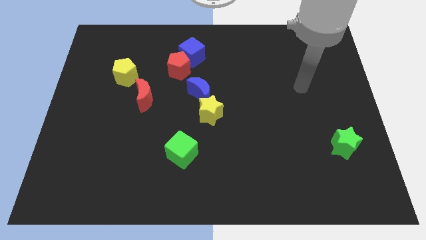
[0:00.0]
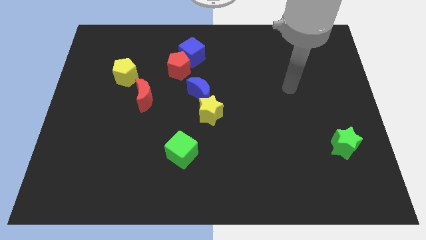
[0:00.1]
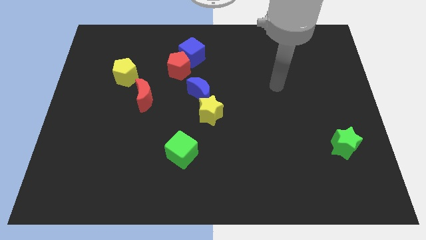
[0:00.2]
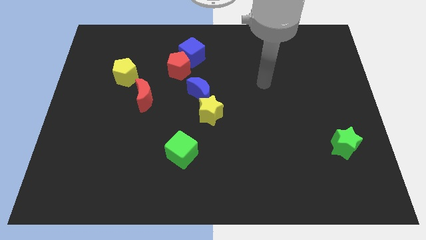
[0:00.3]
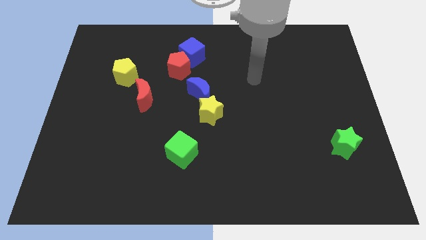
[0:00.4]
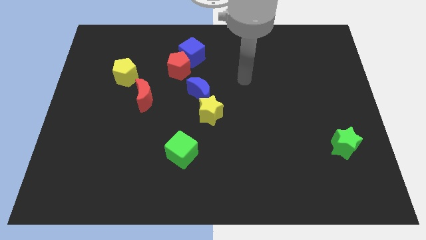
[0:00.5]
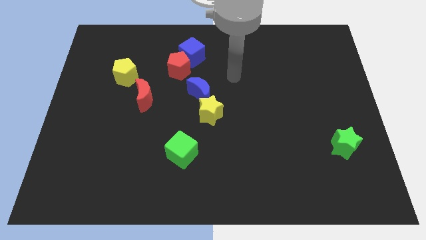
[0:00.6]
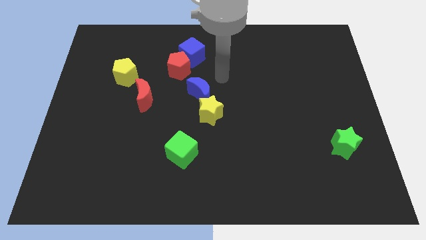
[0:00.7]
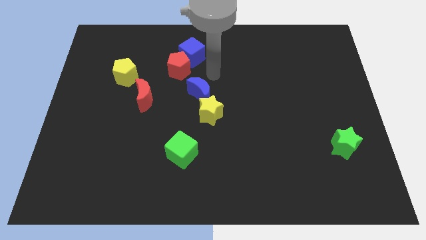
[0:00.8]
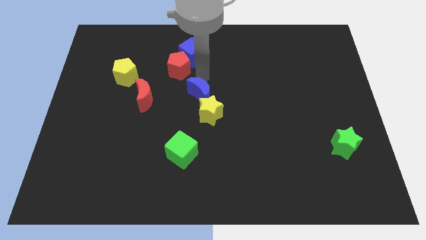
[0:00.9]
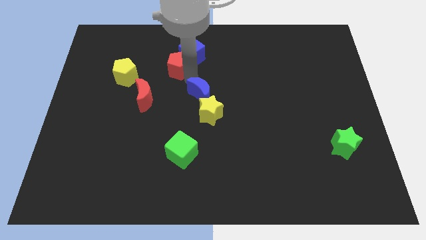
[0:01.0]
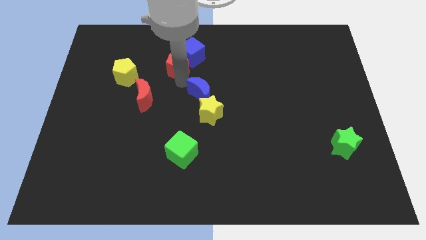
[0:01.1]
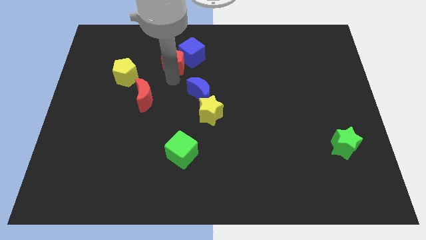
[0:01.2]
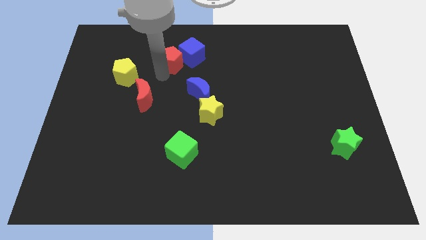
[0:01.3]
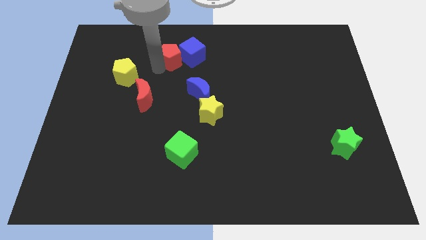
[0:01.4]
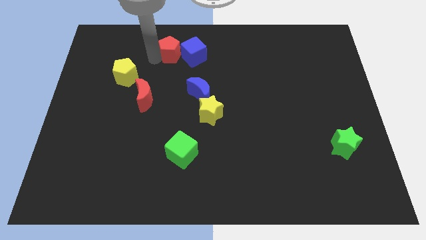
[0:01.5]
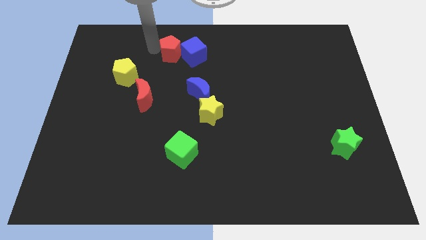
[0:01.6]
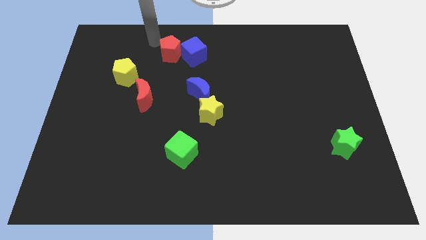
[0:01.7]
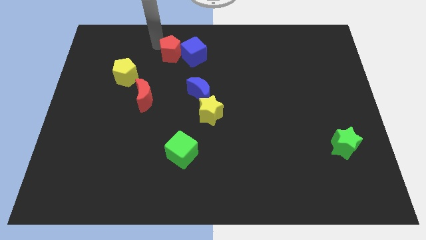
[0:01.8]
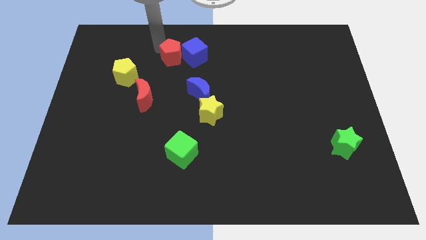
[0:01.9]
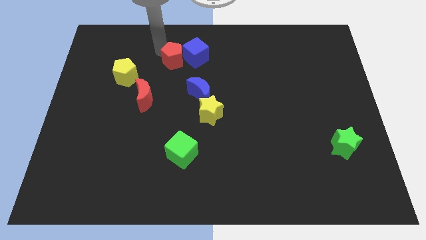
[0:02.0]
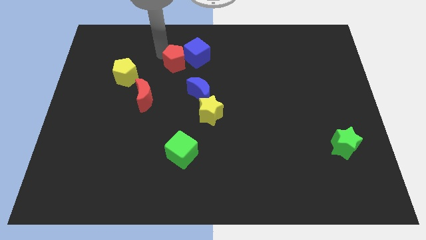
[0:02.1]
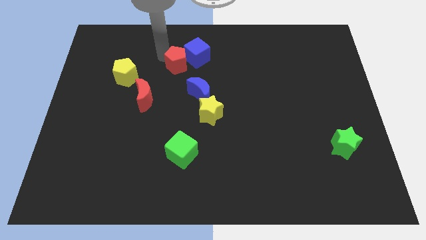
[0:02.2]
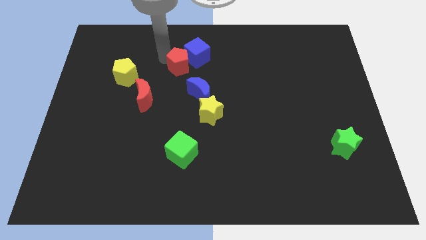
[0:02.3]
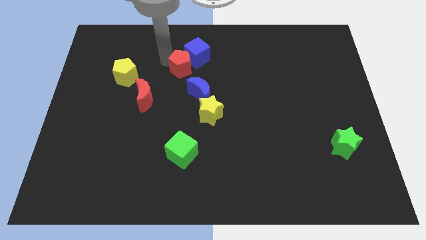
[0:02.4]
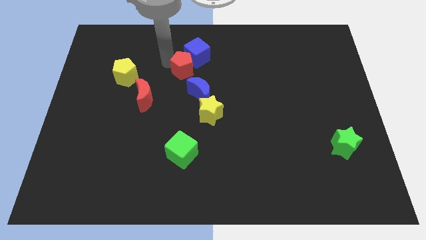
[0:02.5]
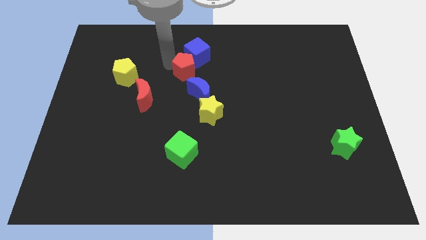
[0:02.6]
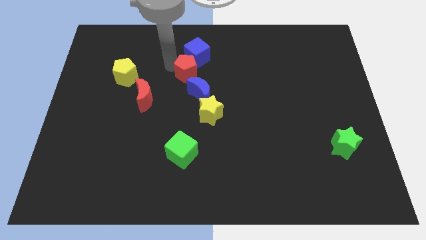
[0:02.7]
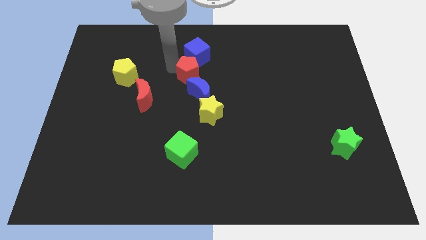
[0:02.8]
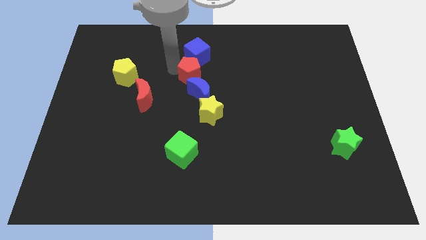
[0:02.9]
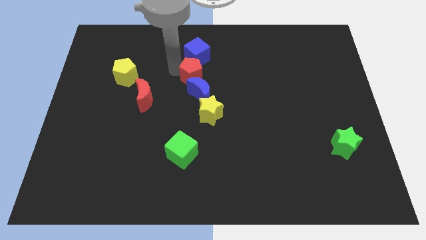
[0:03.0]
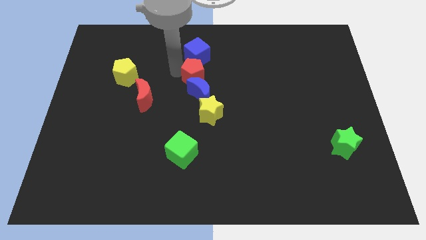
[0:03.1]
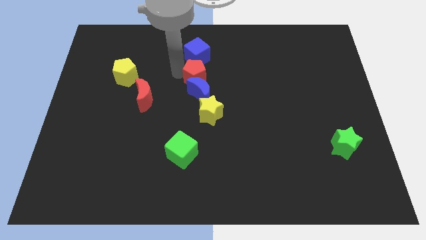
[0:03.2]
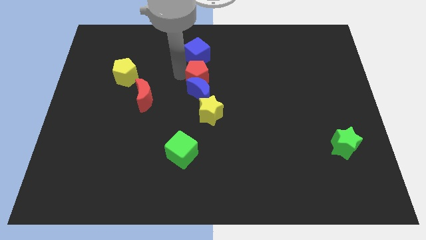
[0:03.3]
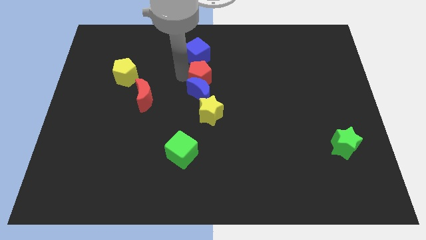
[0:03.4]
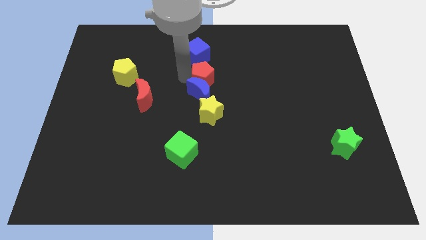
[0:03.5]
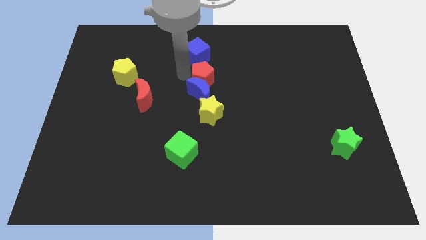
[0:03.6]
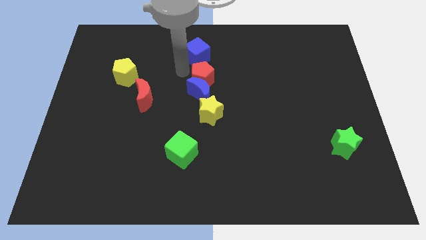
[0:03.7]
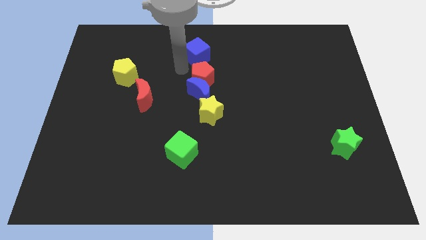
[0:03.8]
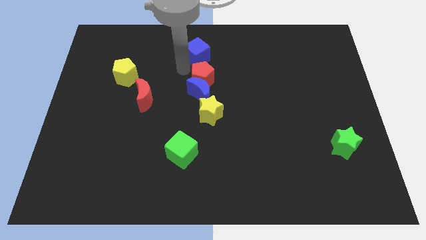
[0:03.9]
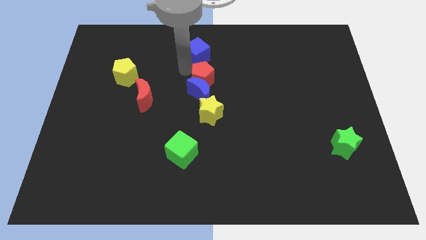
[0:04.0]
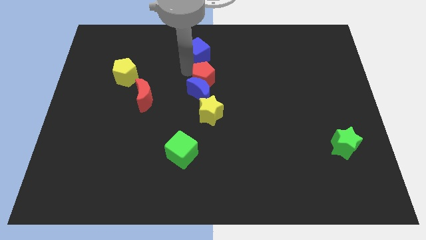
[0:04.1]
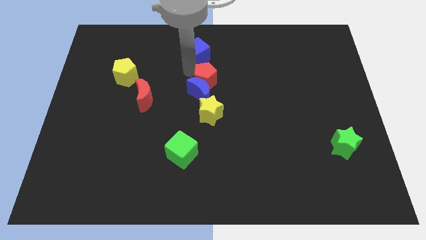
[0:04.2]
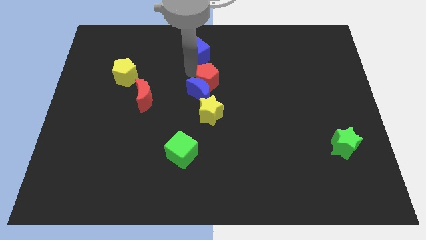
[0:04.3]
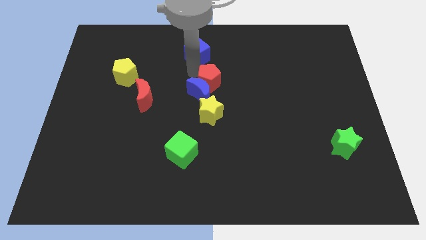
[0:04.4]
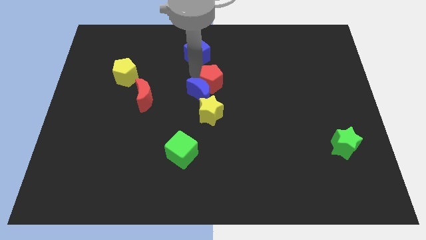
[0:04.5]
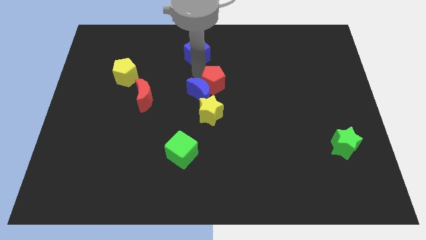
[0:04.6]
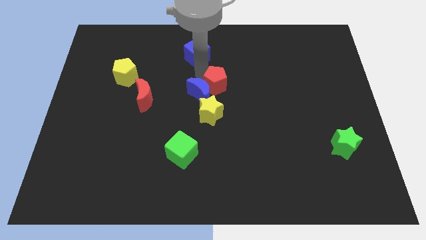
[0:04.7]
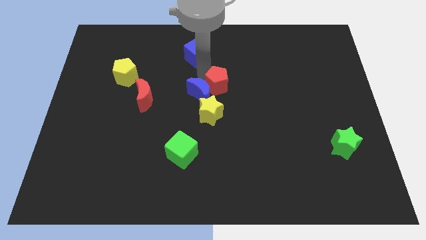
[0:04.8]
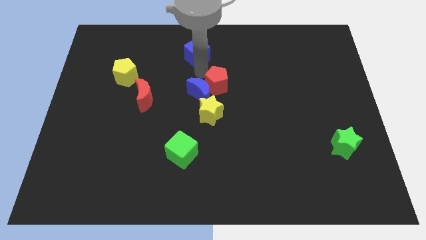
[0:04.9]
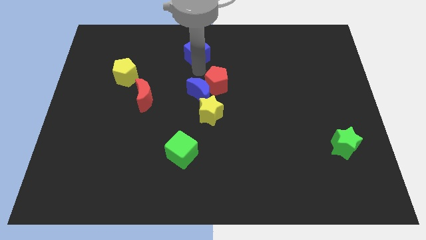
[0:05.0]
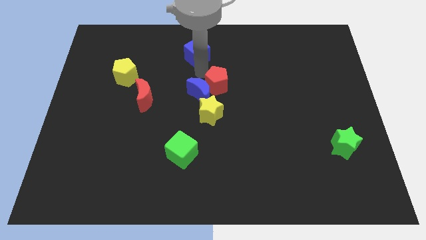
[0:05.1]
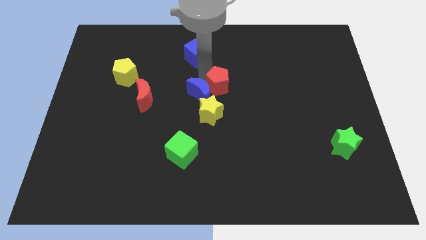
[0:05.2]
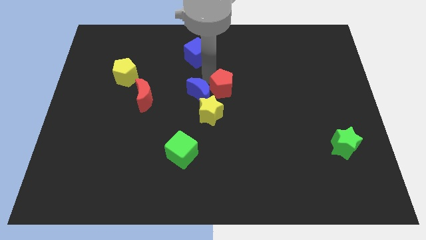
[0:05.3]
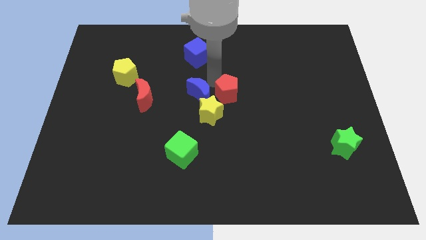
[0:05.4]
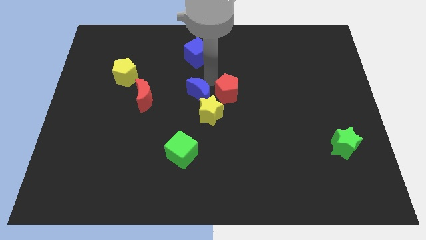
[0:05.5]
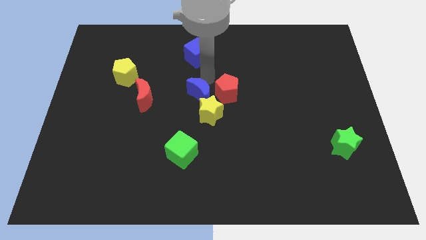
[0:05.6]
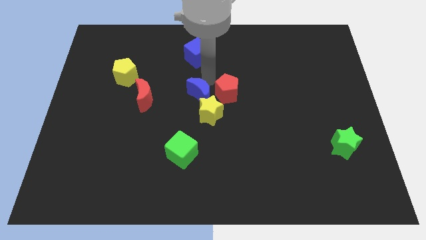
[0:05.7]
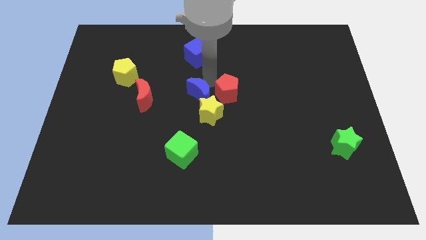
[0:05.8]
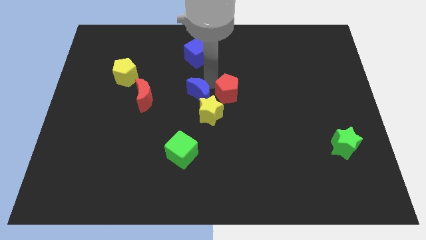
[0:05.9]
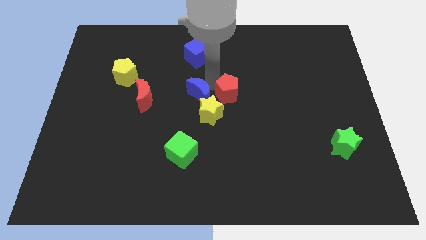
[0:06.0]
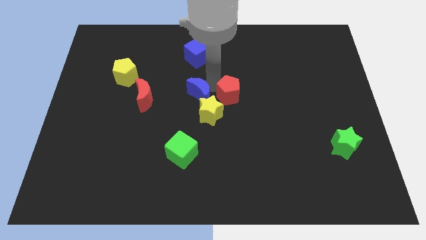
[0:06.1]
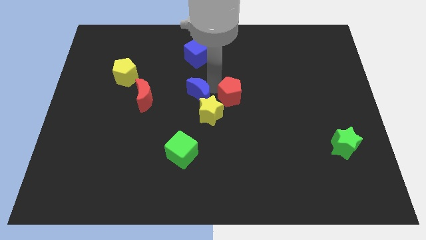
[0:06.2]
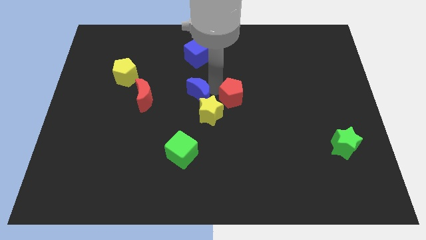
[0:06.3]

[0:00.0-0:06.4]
move the red pentagon right of the yellow star

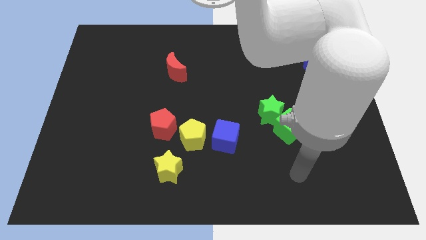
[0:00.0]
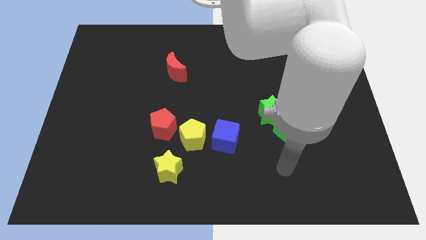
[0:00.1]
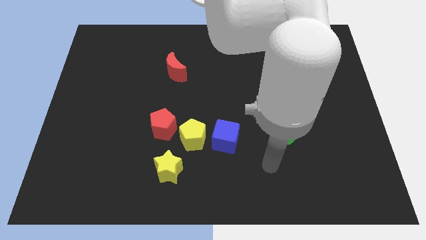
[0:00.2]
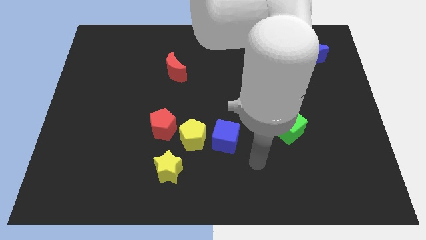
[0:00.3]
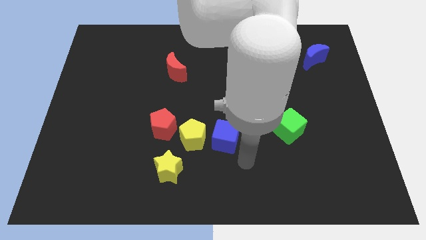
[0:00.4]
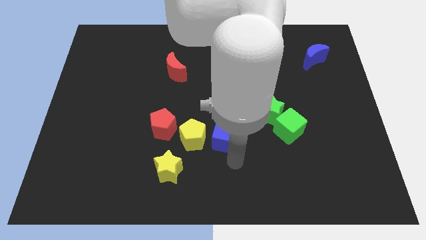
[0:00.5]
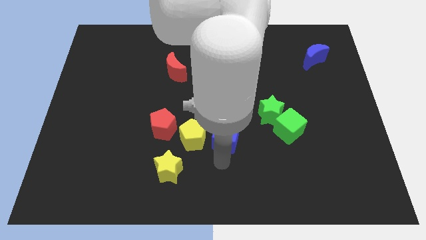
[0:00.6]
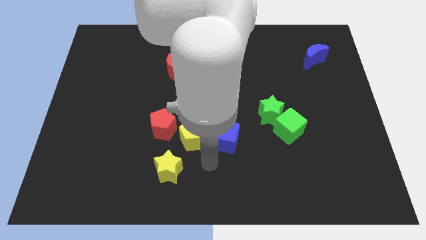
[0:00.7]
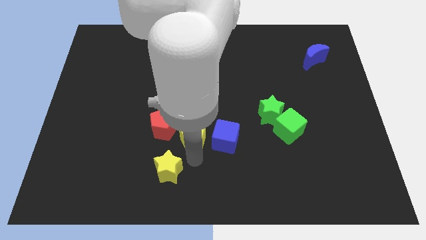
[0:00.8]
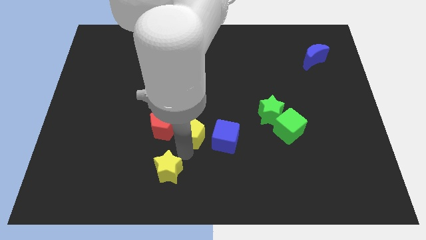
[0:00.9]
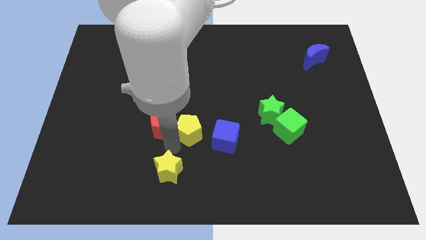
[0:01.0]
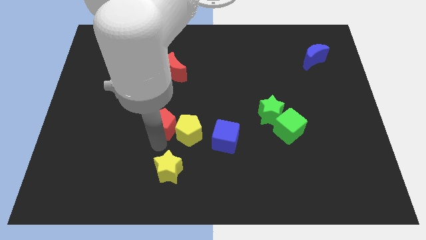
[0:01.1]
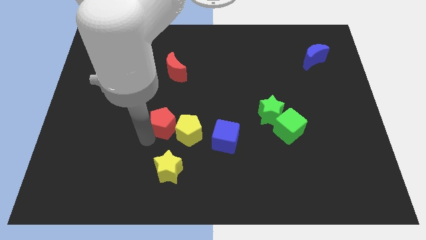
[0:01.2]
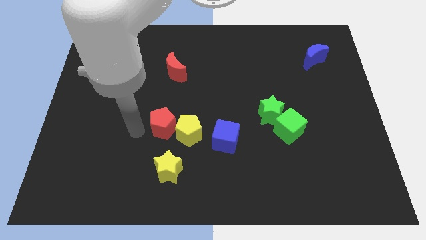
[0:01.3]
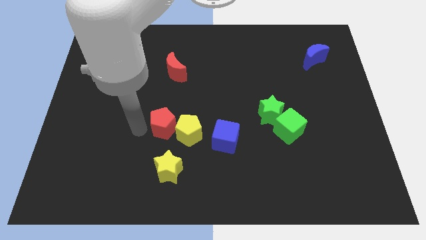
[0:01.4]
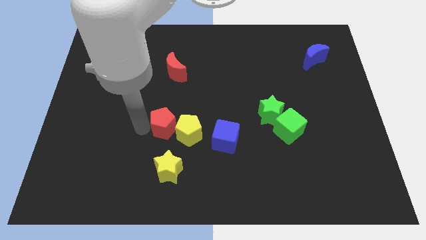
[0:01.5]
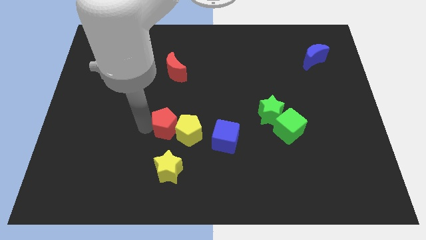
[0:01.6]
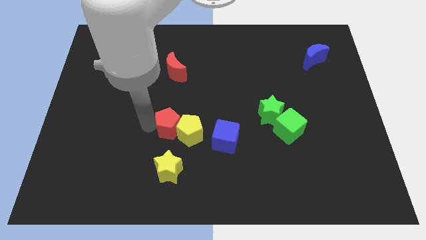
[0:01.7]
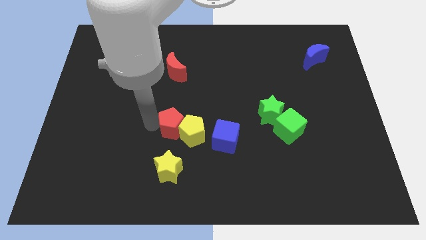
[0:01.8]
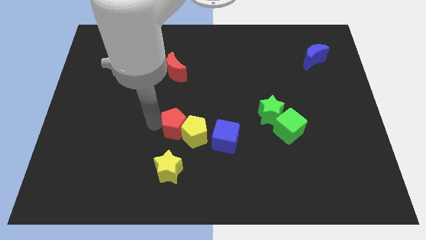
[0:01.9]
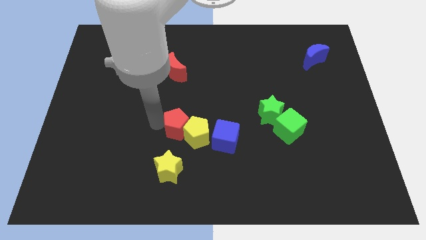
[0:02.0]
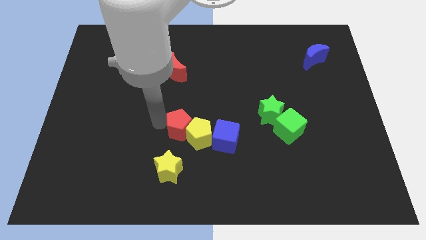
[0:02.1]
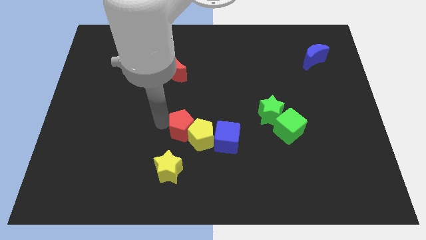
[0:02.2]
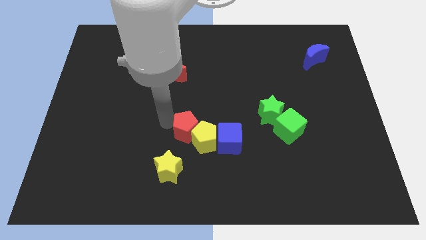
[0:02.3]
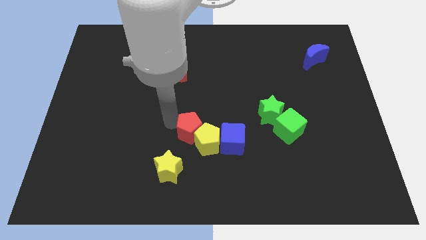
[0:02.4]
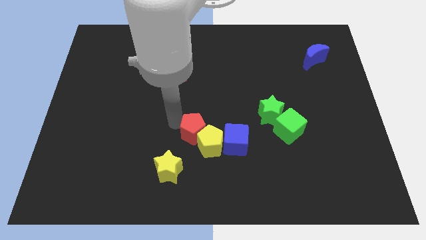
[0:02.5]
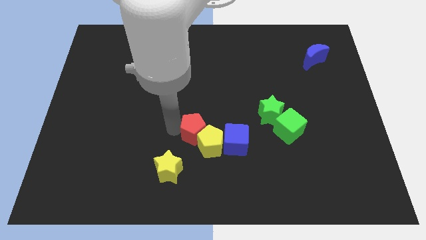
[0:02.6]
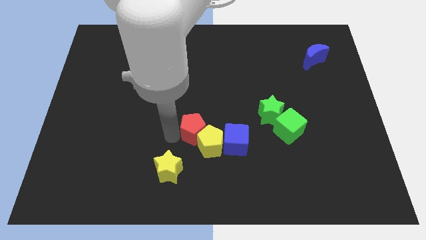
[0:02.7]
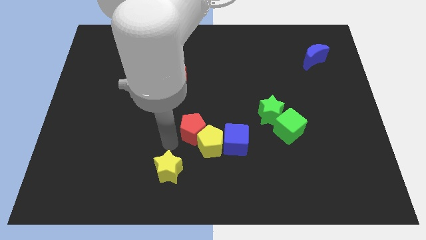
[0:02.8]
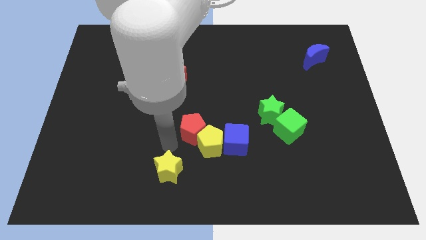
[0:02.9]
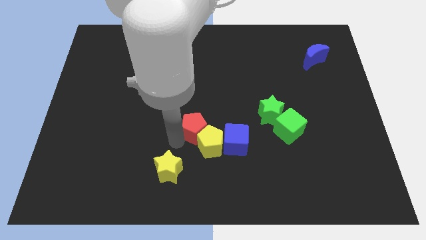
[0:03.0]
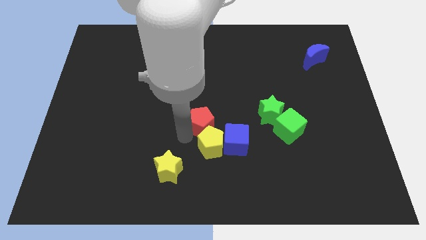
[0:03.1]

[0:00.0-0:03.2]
move the red pentagon to the left of the green star
